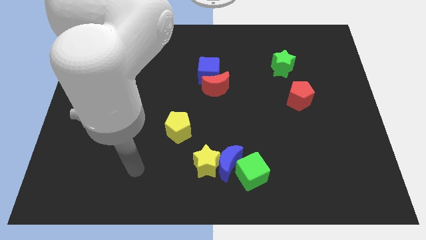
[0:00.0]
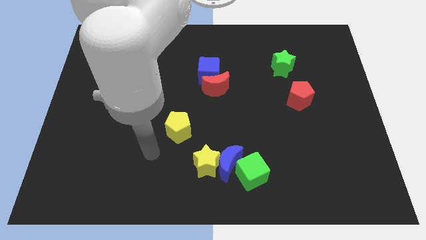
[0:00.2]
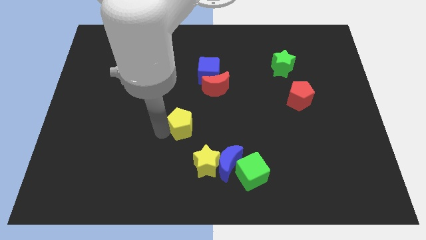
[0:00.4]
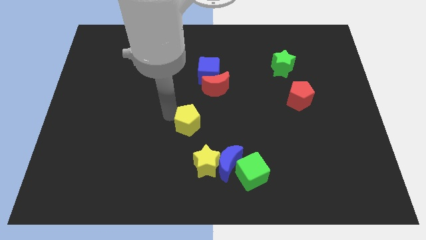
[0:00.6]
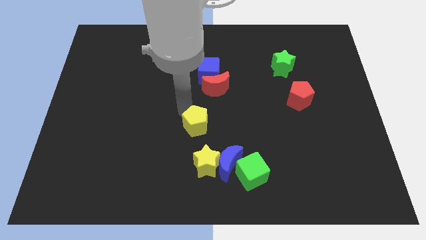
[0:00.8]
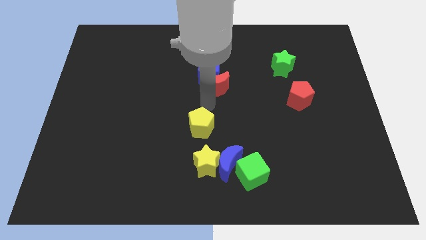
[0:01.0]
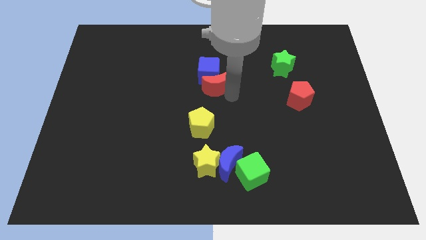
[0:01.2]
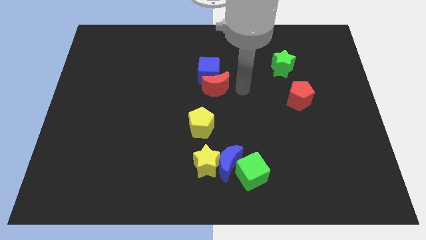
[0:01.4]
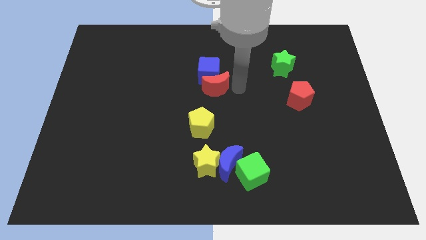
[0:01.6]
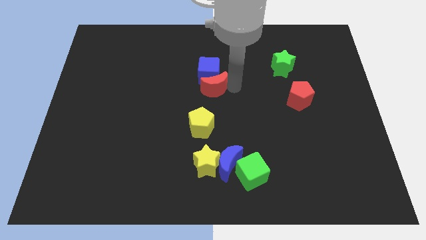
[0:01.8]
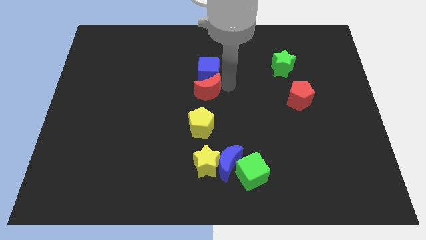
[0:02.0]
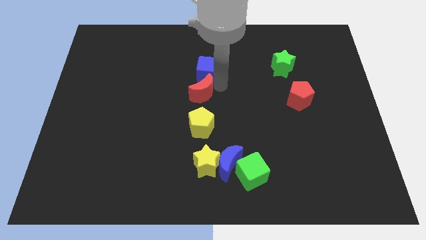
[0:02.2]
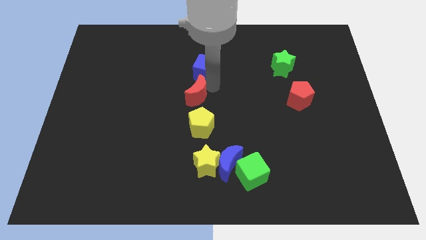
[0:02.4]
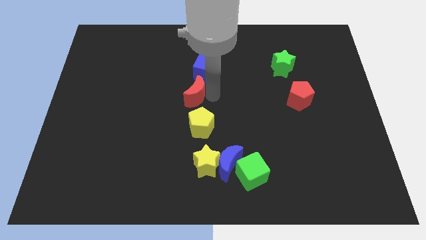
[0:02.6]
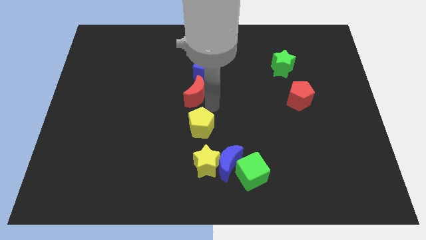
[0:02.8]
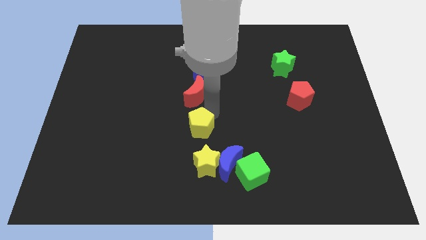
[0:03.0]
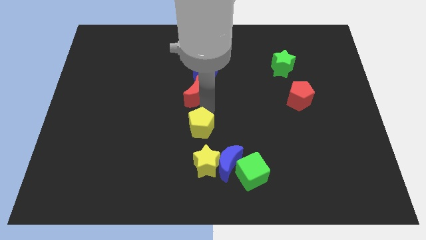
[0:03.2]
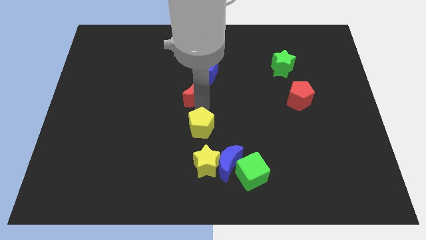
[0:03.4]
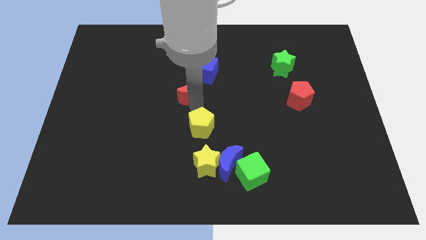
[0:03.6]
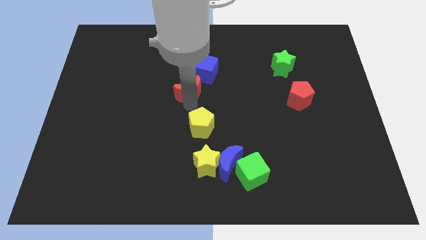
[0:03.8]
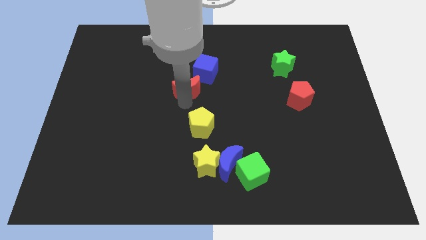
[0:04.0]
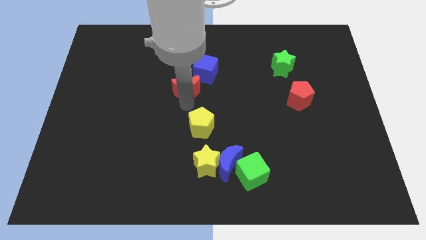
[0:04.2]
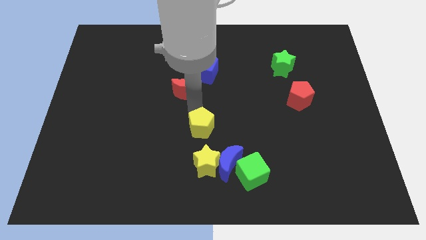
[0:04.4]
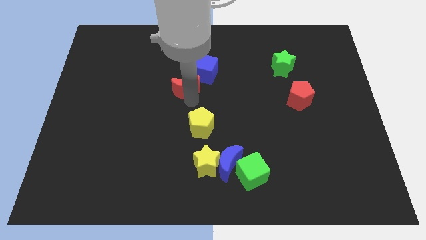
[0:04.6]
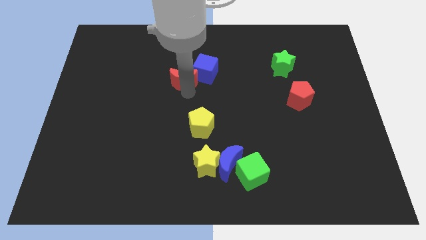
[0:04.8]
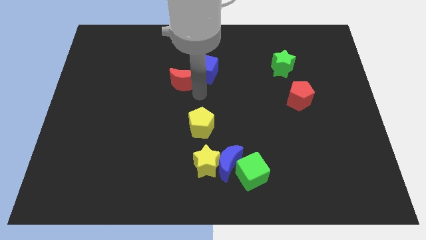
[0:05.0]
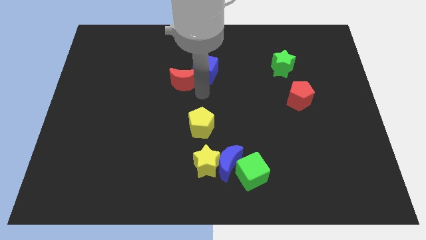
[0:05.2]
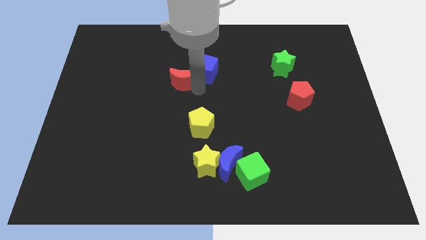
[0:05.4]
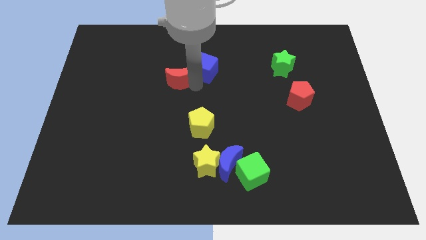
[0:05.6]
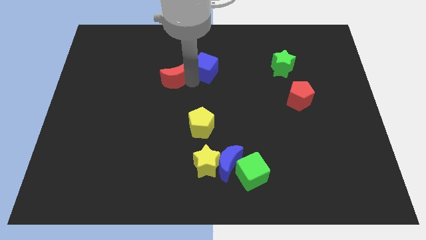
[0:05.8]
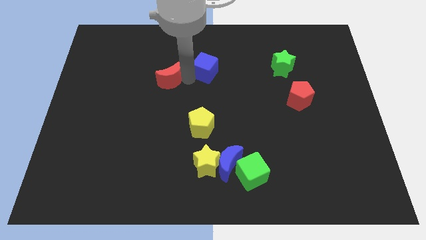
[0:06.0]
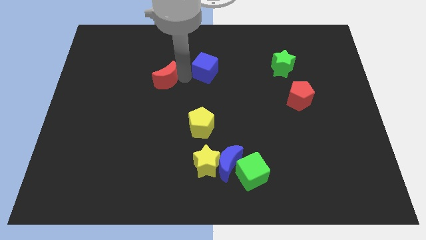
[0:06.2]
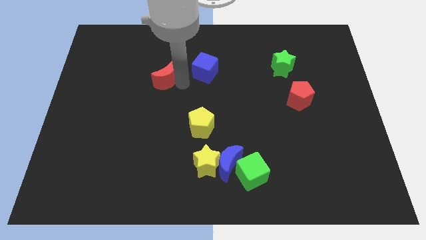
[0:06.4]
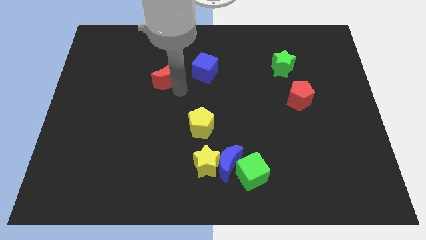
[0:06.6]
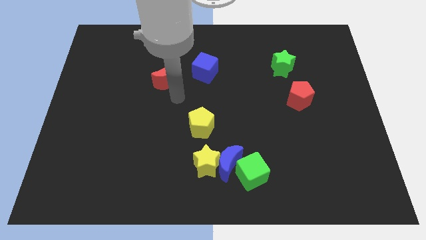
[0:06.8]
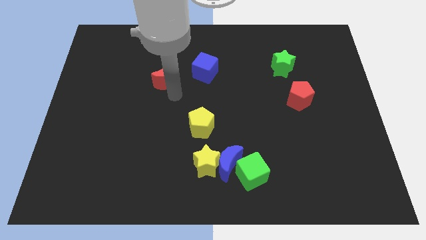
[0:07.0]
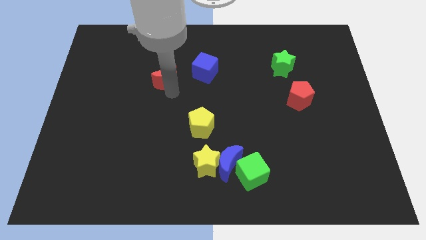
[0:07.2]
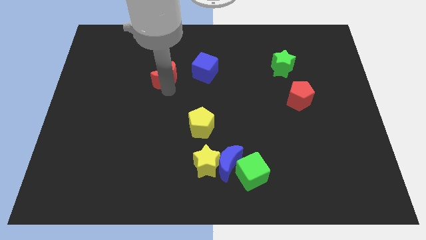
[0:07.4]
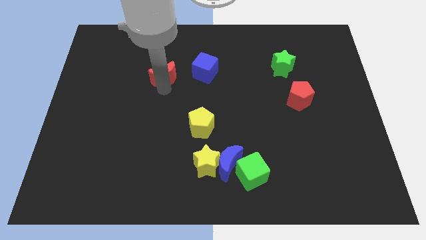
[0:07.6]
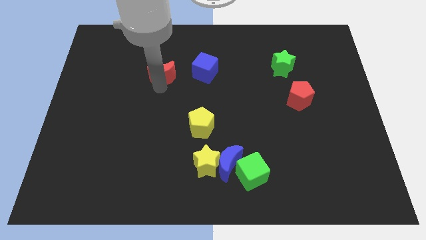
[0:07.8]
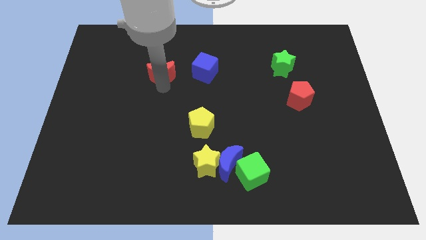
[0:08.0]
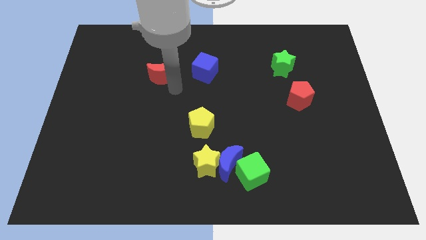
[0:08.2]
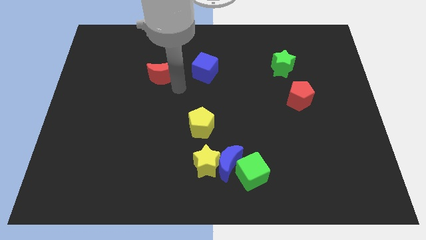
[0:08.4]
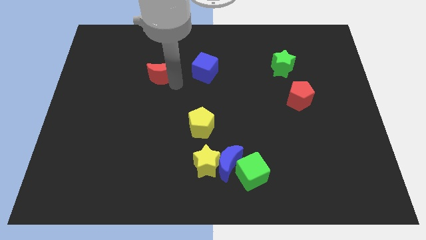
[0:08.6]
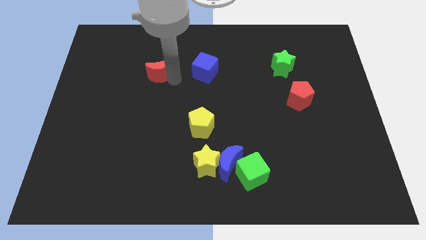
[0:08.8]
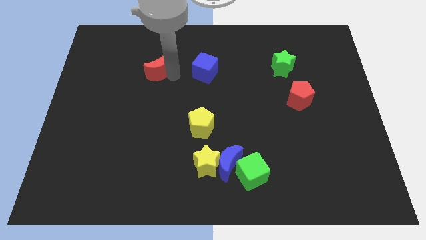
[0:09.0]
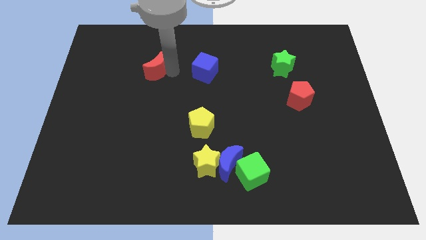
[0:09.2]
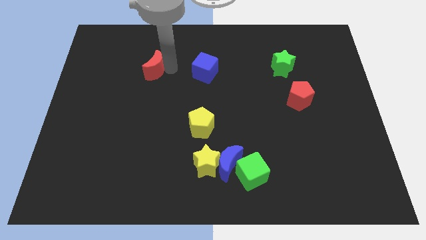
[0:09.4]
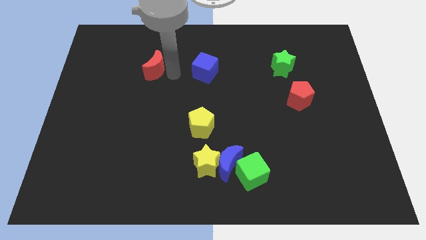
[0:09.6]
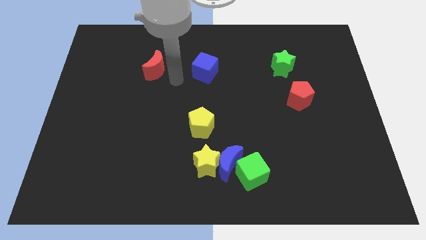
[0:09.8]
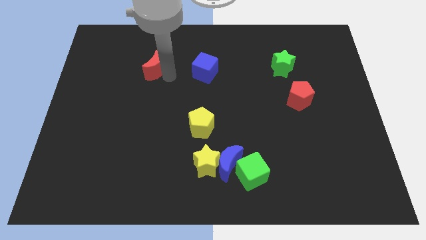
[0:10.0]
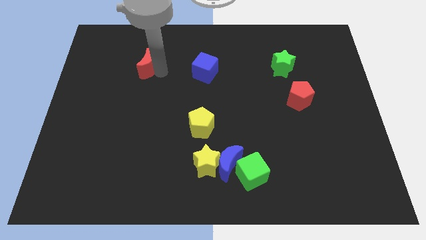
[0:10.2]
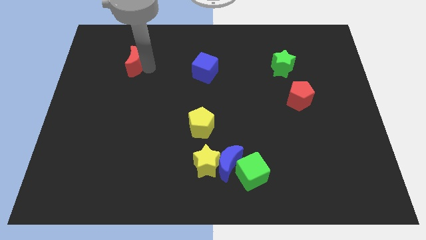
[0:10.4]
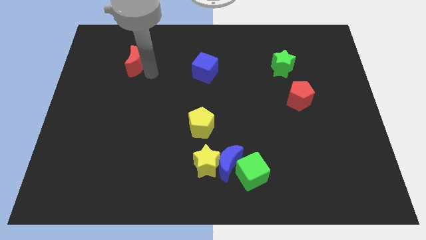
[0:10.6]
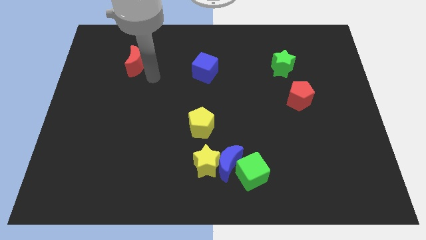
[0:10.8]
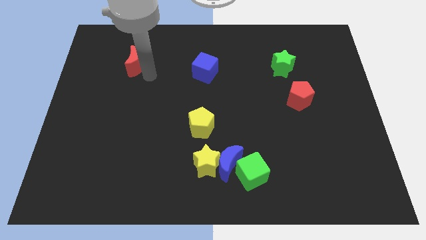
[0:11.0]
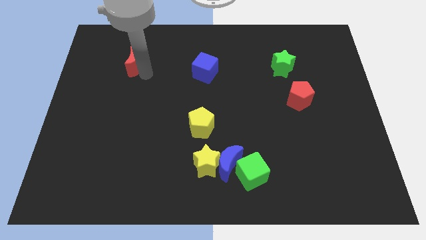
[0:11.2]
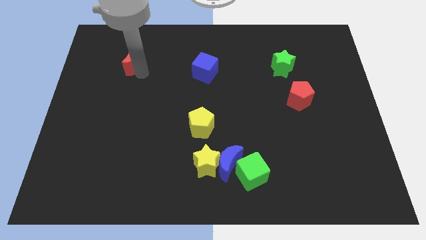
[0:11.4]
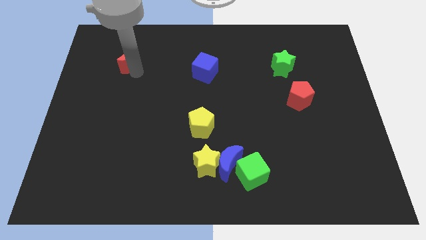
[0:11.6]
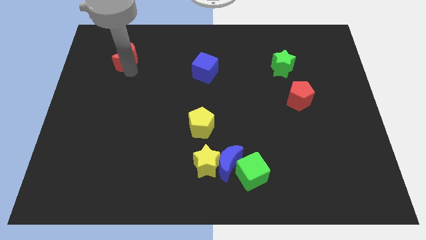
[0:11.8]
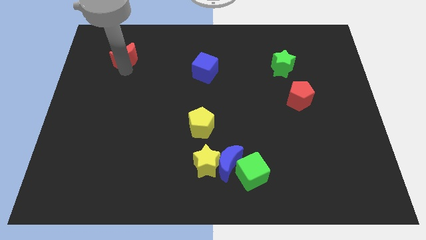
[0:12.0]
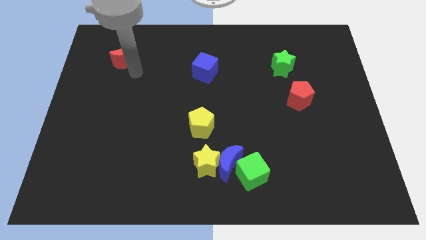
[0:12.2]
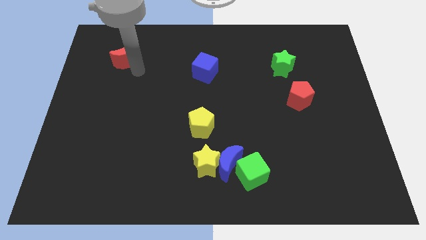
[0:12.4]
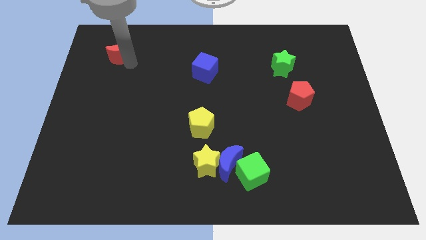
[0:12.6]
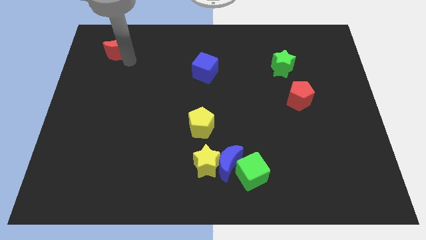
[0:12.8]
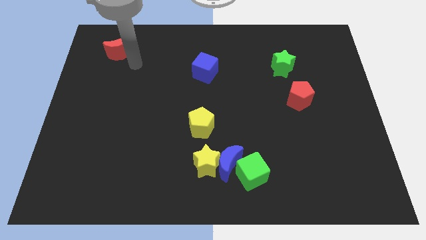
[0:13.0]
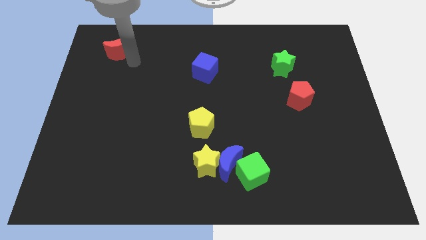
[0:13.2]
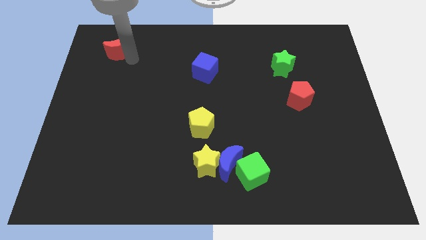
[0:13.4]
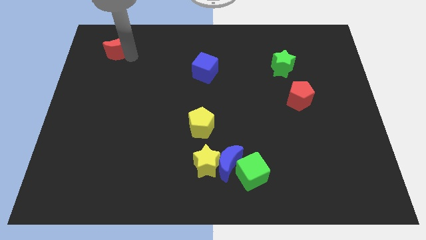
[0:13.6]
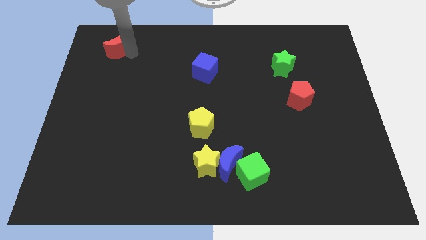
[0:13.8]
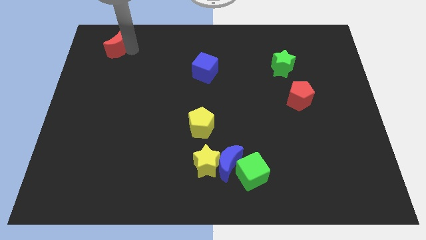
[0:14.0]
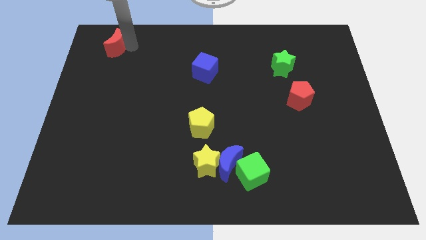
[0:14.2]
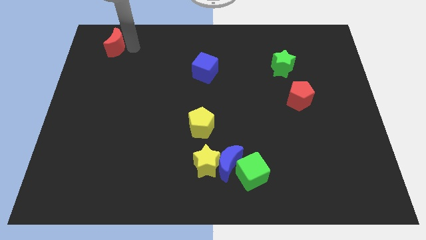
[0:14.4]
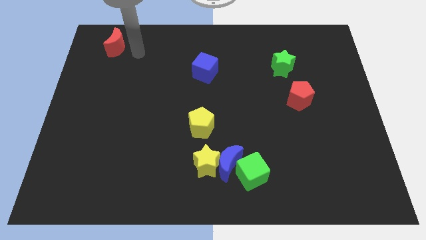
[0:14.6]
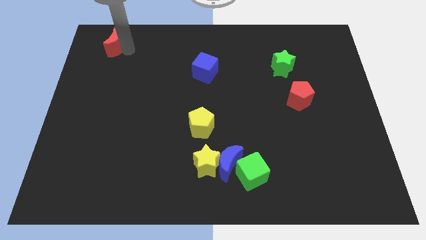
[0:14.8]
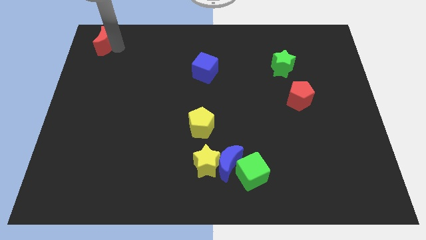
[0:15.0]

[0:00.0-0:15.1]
push the red moon to the top left corner
